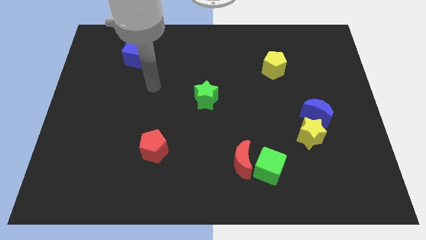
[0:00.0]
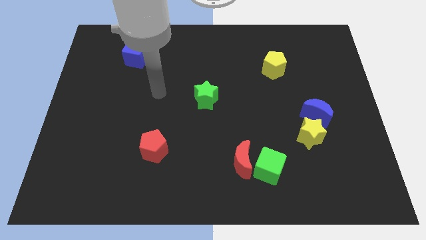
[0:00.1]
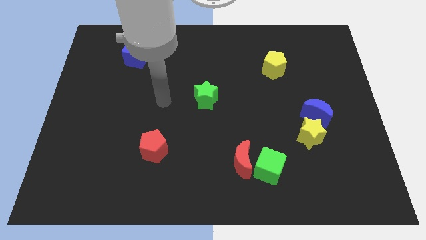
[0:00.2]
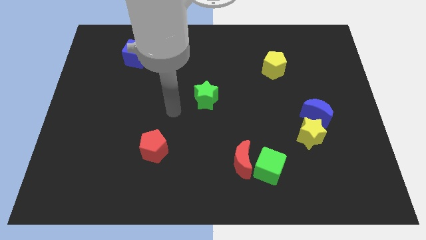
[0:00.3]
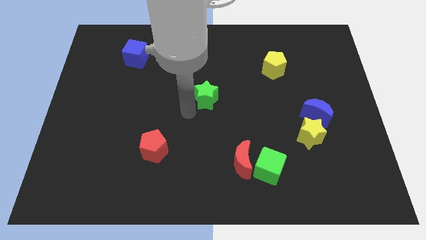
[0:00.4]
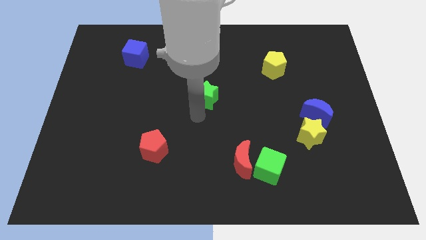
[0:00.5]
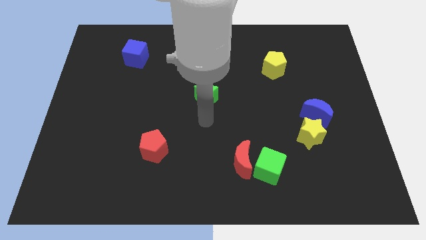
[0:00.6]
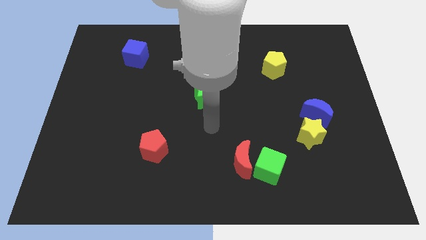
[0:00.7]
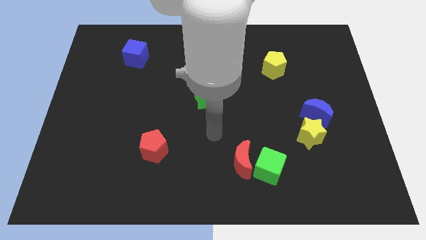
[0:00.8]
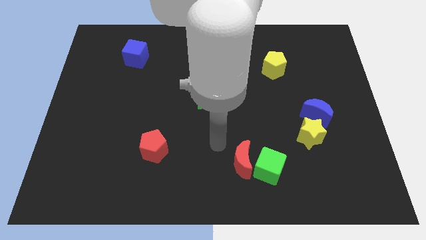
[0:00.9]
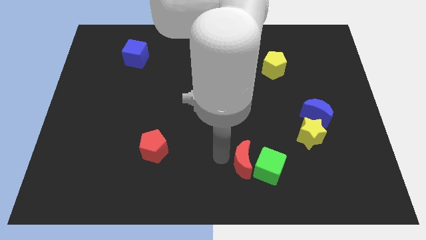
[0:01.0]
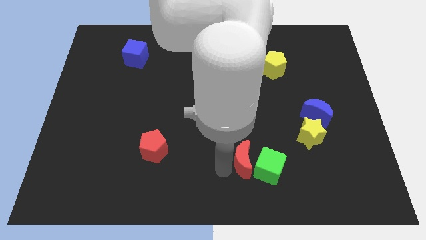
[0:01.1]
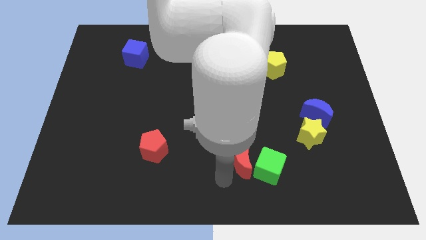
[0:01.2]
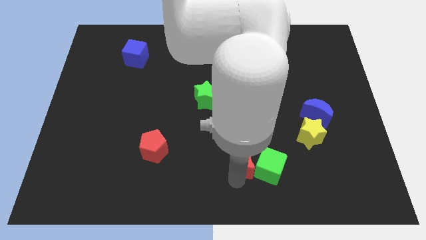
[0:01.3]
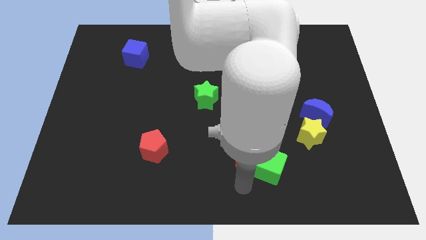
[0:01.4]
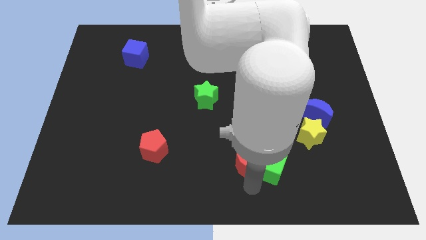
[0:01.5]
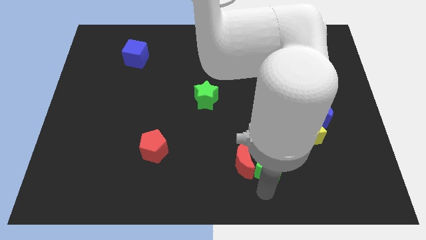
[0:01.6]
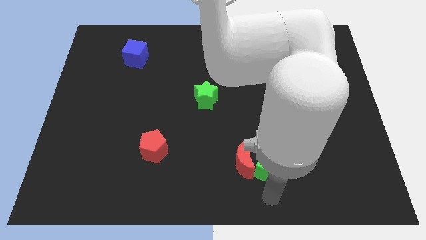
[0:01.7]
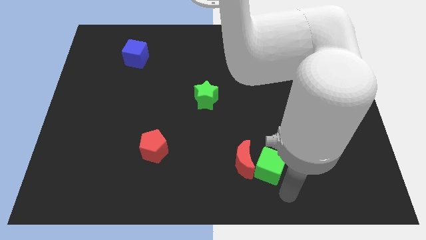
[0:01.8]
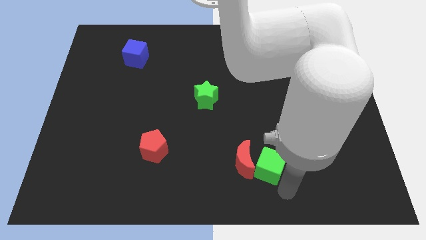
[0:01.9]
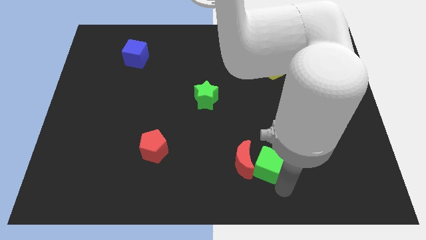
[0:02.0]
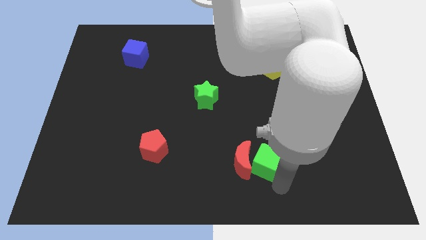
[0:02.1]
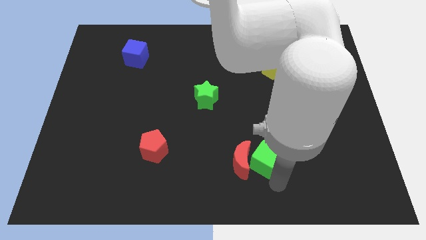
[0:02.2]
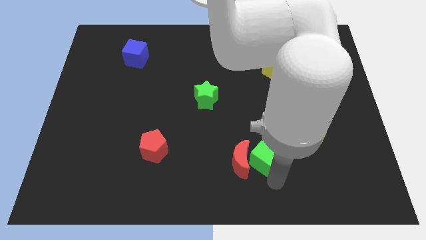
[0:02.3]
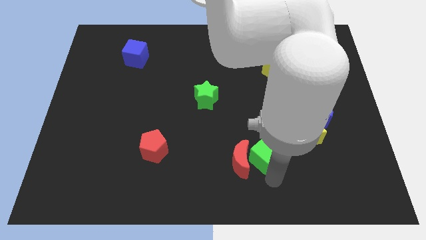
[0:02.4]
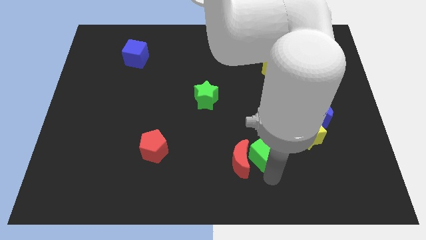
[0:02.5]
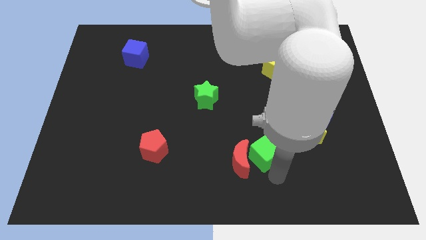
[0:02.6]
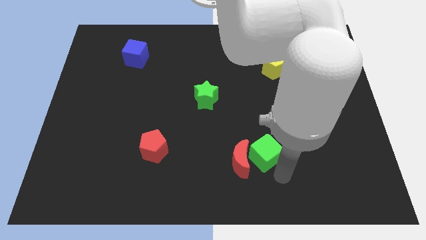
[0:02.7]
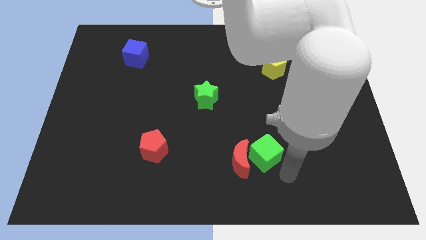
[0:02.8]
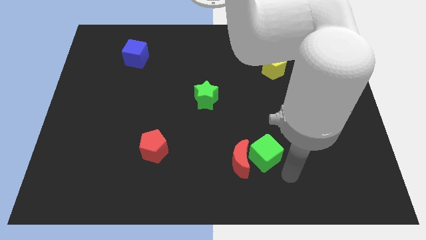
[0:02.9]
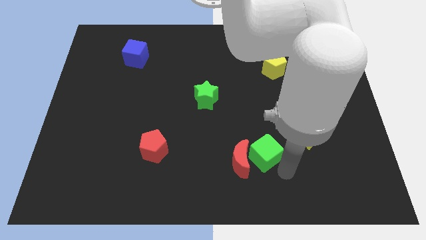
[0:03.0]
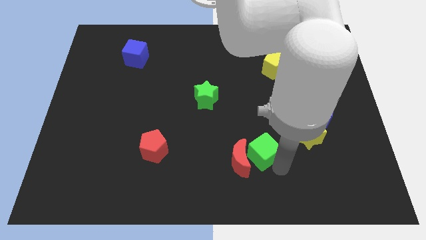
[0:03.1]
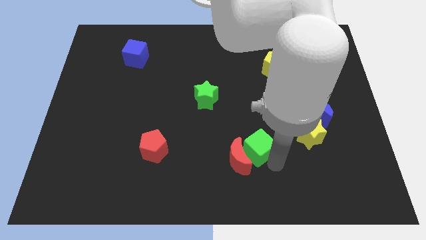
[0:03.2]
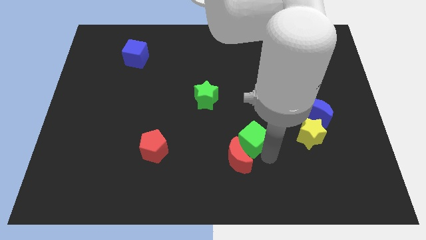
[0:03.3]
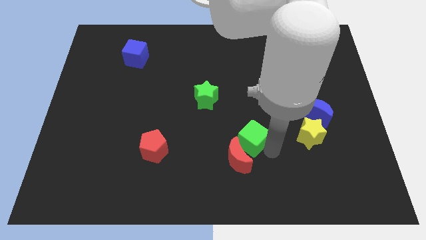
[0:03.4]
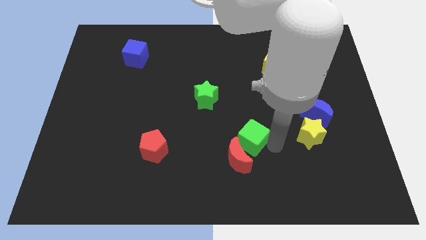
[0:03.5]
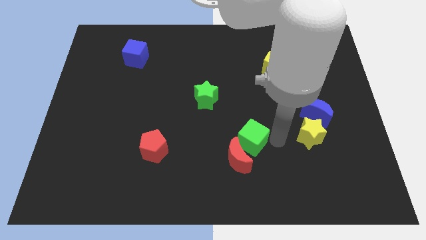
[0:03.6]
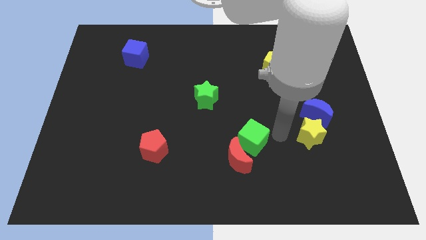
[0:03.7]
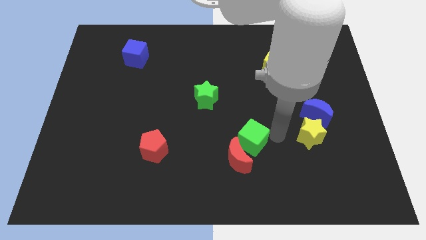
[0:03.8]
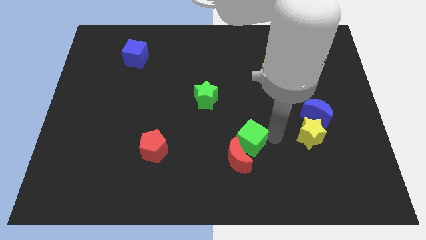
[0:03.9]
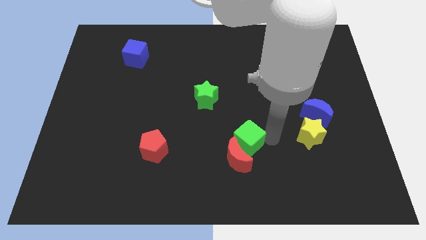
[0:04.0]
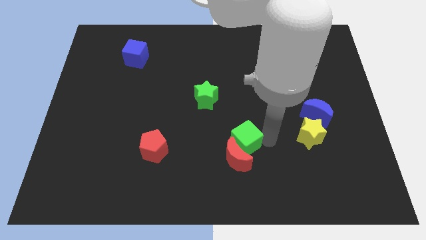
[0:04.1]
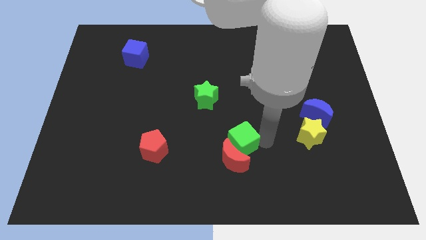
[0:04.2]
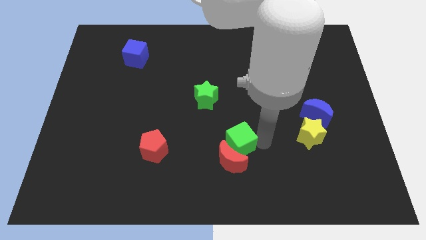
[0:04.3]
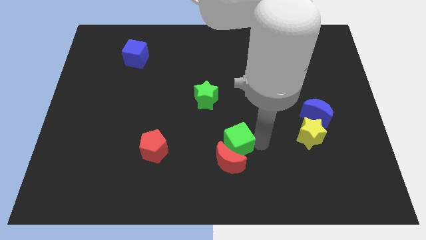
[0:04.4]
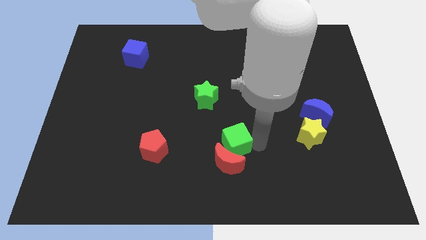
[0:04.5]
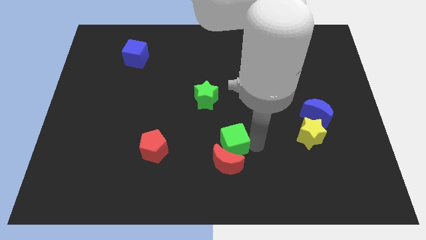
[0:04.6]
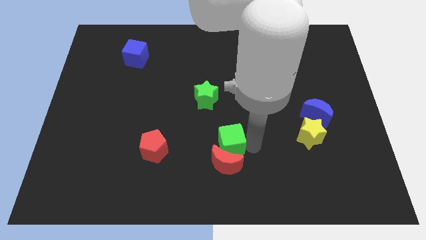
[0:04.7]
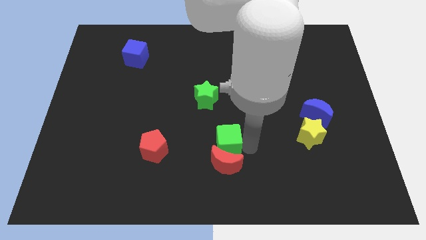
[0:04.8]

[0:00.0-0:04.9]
put the green cube to the right of the red pentagon

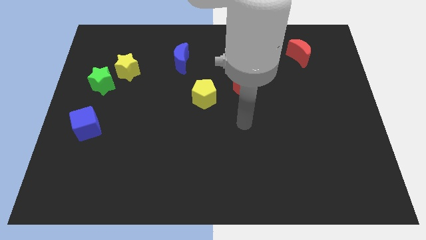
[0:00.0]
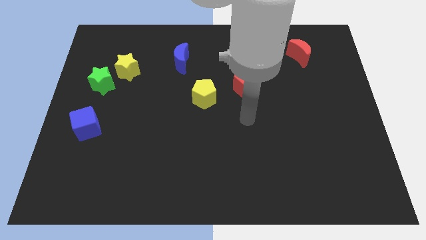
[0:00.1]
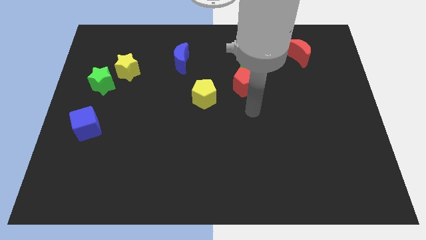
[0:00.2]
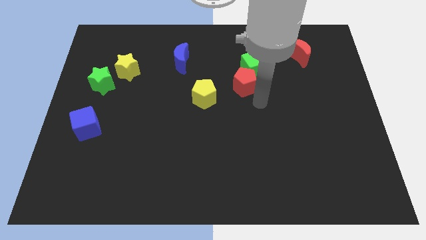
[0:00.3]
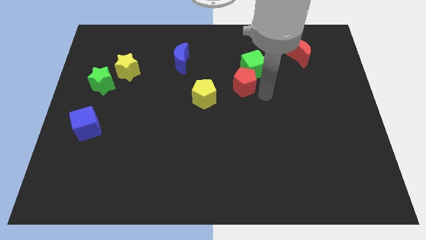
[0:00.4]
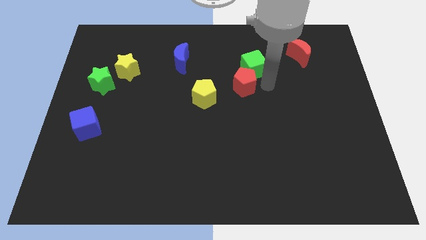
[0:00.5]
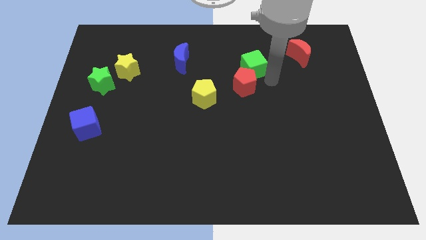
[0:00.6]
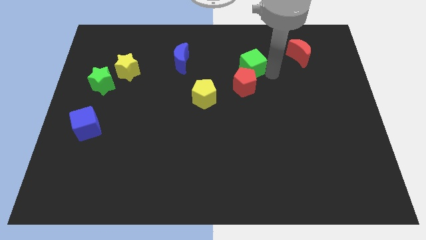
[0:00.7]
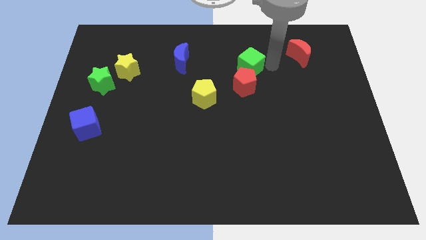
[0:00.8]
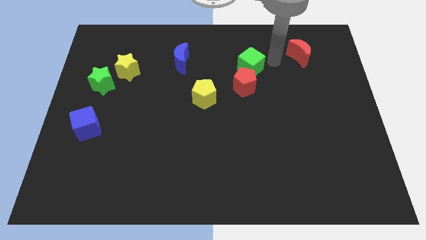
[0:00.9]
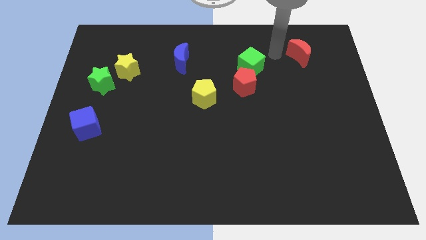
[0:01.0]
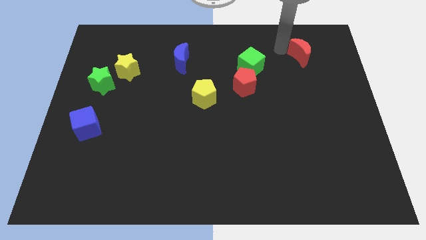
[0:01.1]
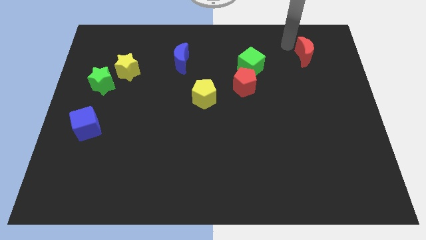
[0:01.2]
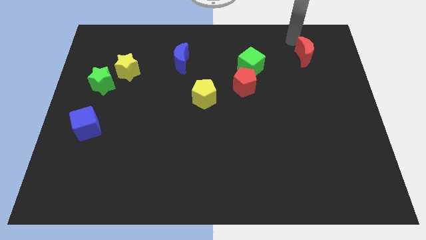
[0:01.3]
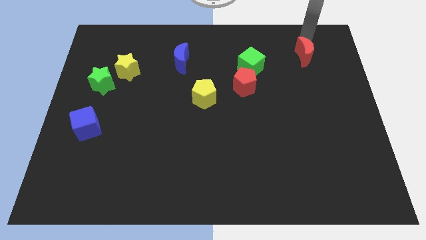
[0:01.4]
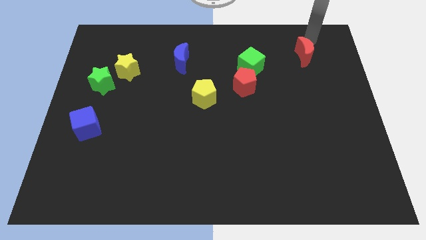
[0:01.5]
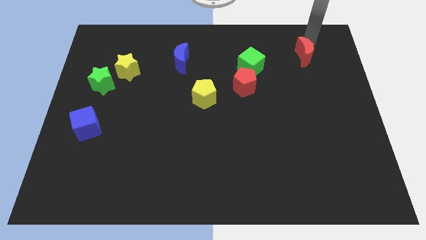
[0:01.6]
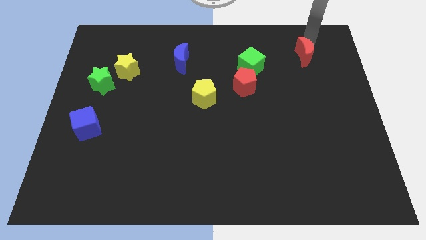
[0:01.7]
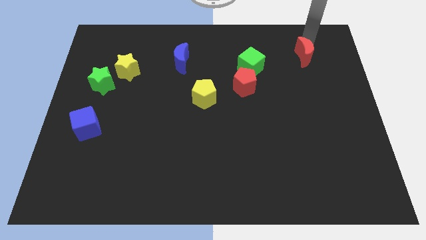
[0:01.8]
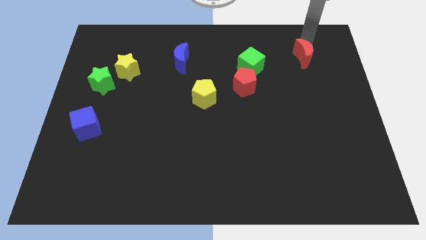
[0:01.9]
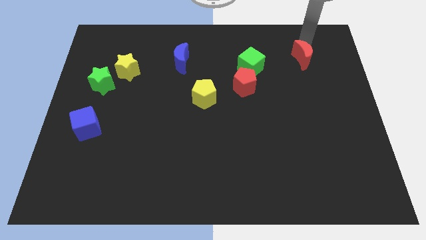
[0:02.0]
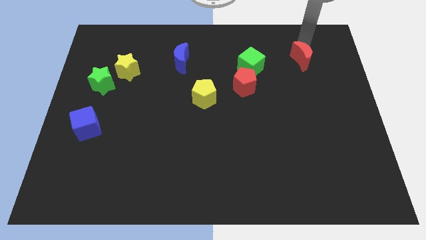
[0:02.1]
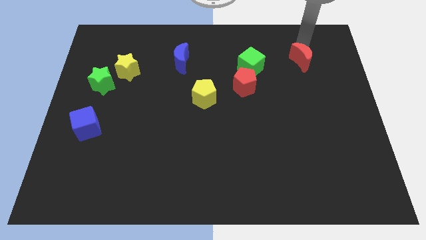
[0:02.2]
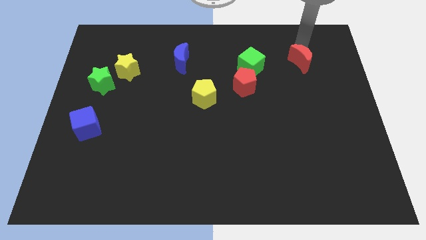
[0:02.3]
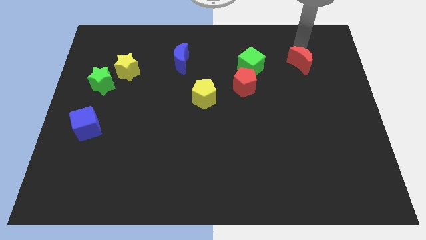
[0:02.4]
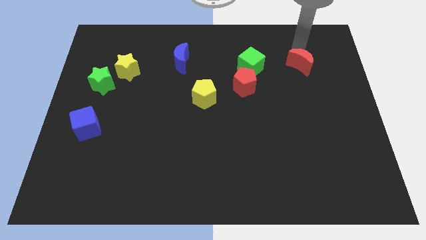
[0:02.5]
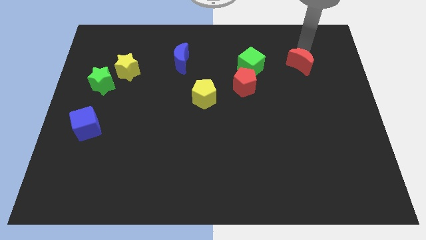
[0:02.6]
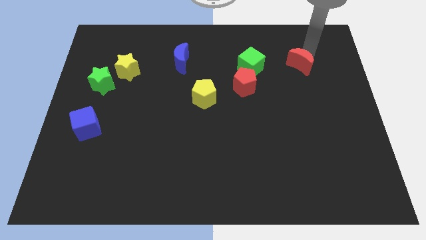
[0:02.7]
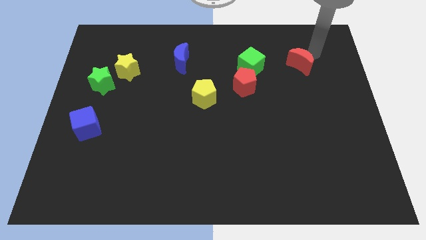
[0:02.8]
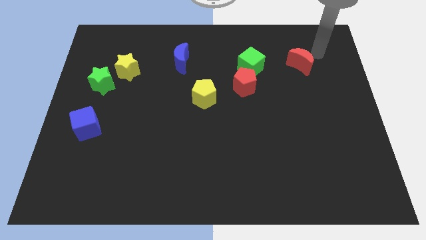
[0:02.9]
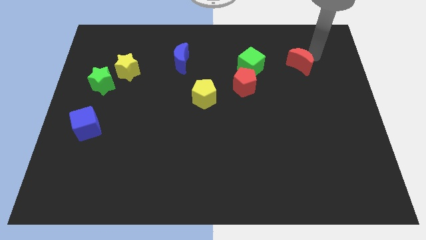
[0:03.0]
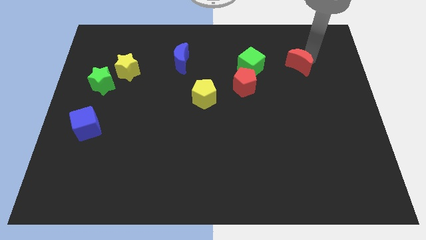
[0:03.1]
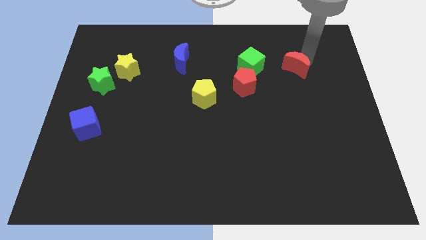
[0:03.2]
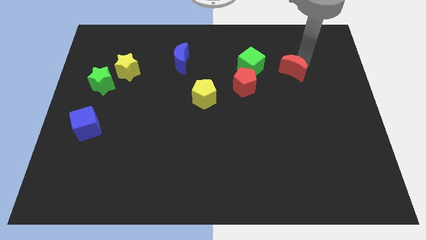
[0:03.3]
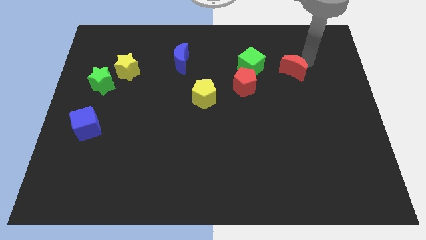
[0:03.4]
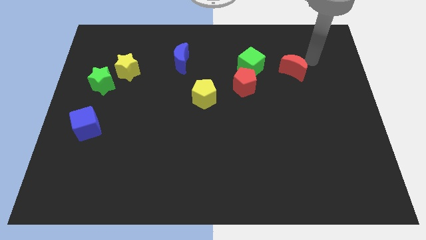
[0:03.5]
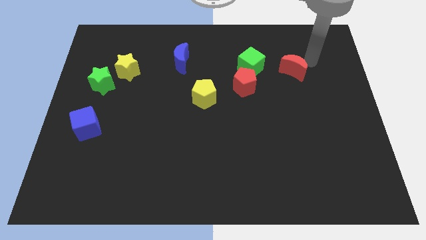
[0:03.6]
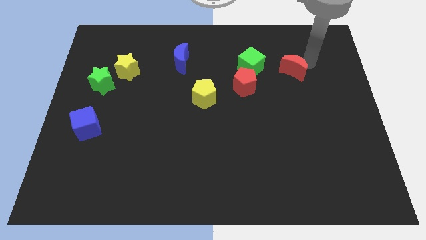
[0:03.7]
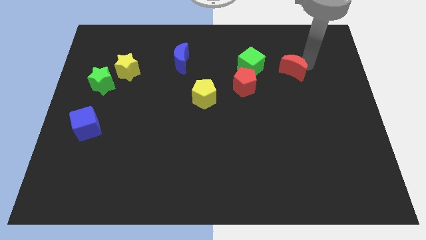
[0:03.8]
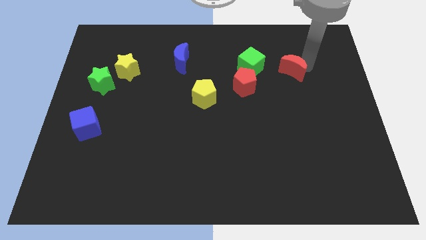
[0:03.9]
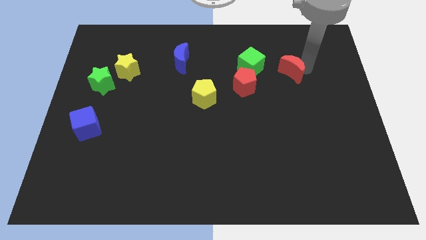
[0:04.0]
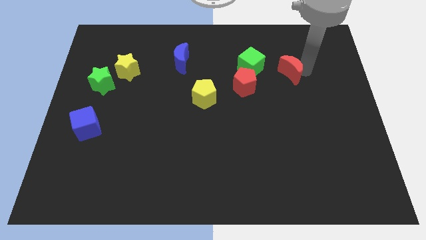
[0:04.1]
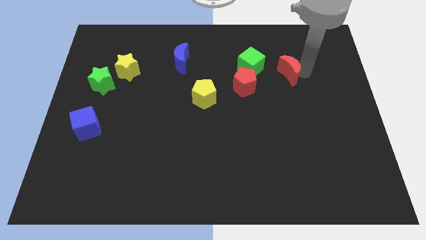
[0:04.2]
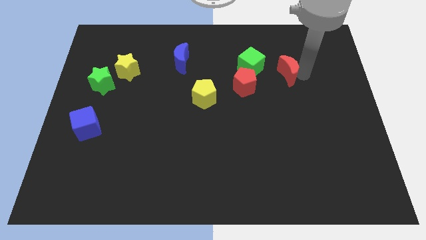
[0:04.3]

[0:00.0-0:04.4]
slide the red moon to the bottom right of the green cube
